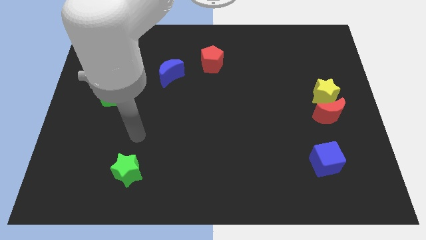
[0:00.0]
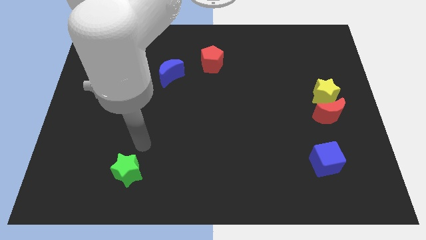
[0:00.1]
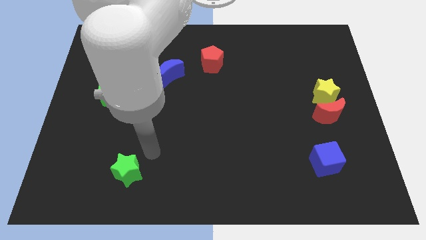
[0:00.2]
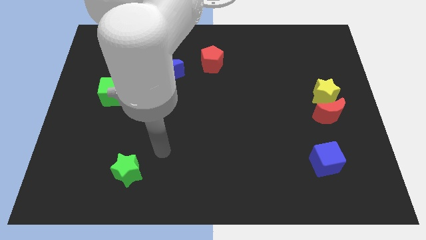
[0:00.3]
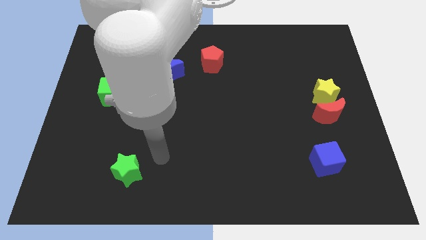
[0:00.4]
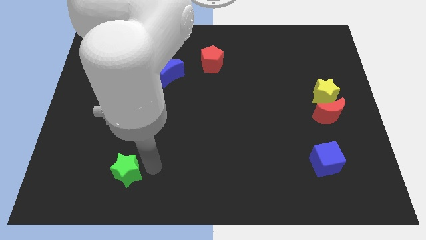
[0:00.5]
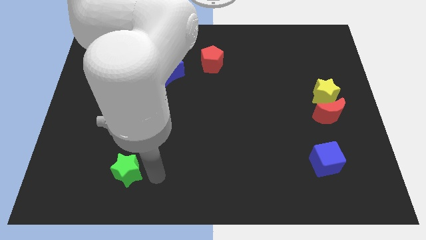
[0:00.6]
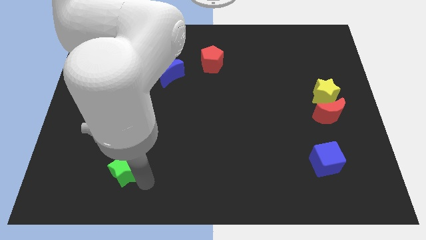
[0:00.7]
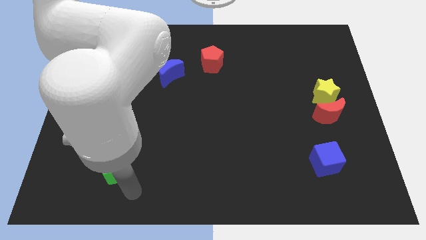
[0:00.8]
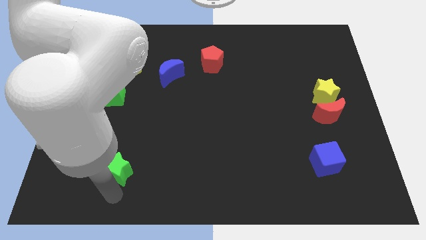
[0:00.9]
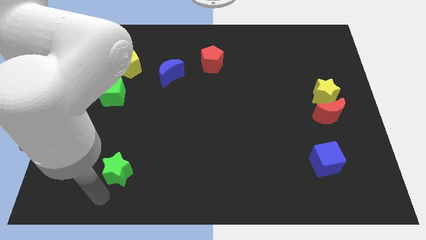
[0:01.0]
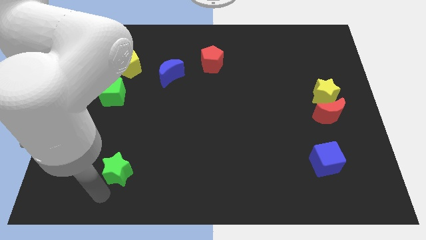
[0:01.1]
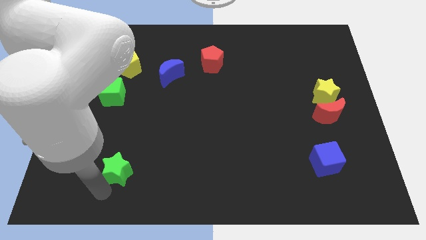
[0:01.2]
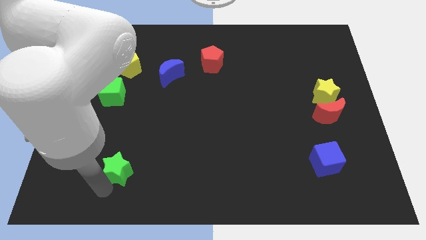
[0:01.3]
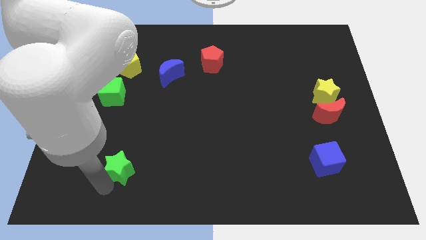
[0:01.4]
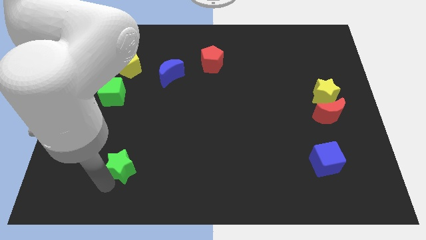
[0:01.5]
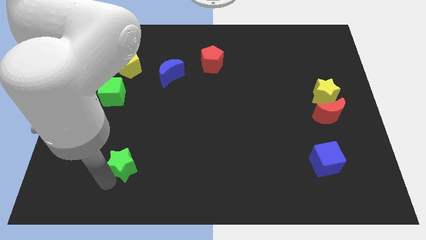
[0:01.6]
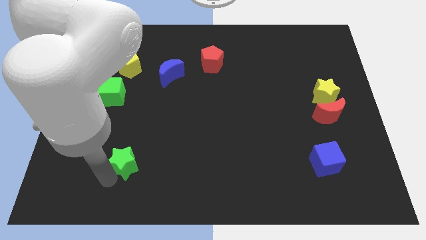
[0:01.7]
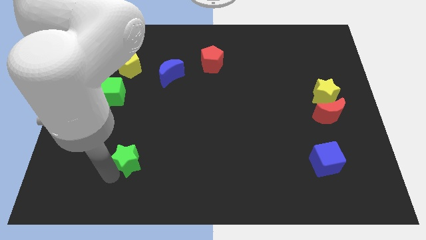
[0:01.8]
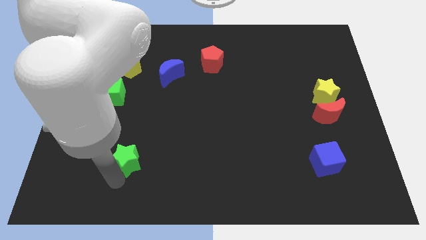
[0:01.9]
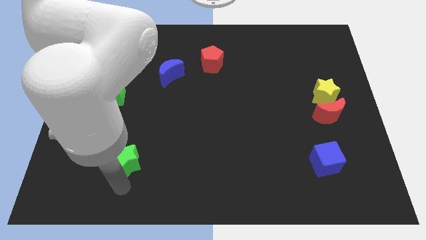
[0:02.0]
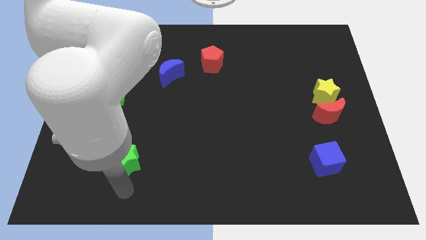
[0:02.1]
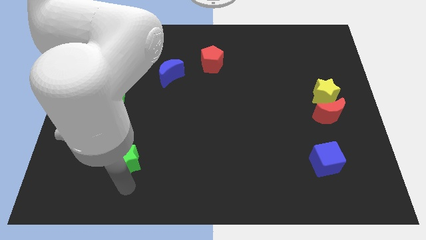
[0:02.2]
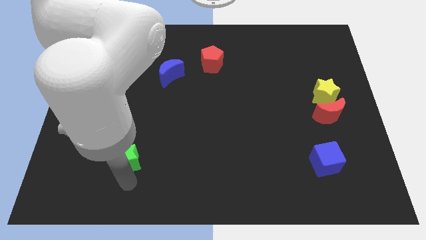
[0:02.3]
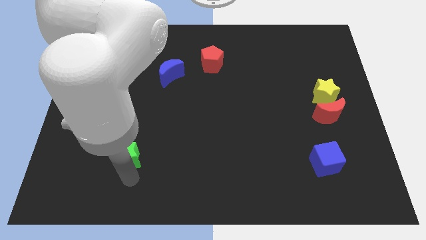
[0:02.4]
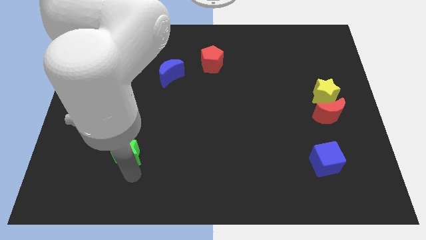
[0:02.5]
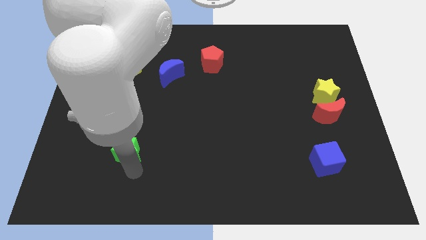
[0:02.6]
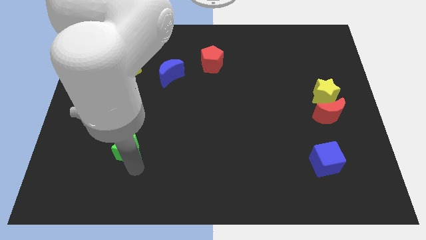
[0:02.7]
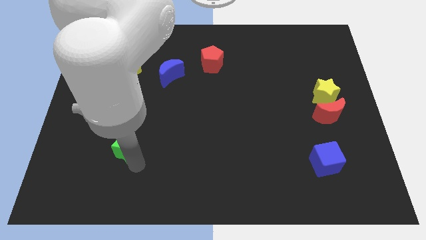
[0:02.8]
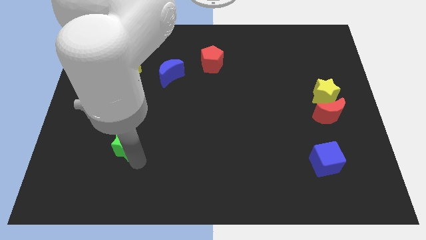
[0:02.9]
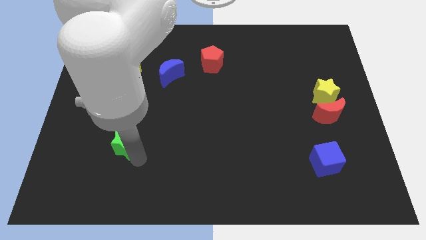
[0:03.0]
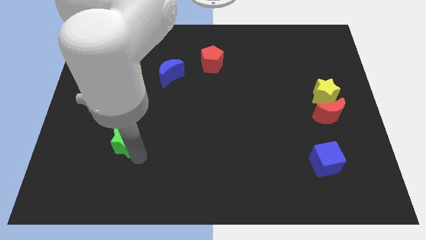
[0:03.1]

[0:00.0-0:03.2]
move the green star somewhat up

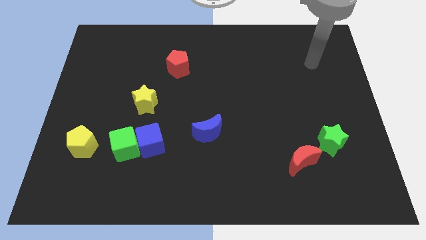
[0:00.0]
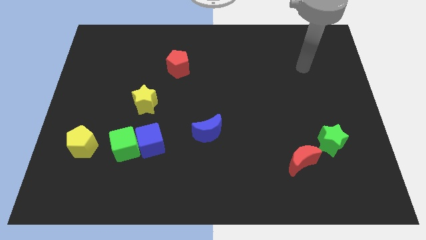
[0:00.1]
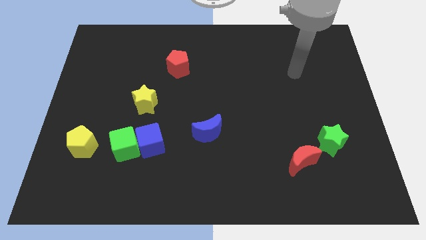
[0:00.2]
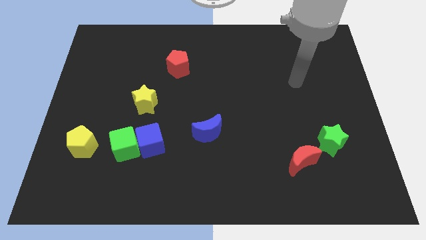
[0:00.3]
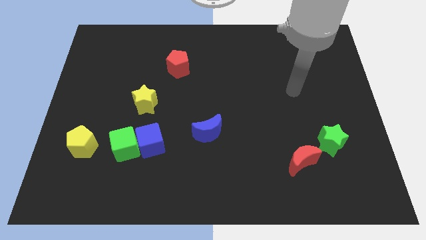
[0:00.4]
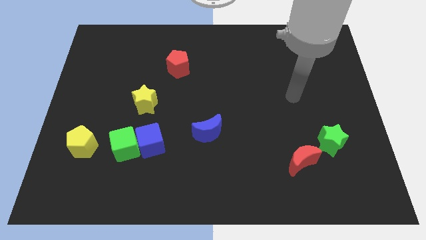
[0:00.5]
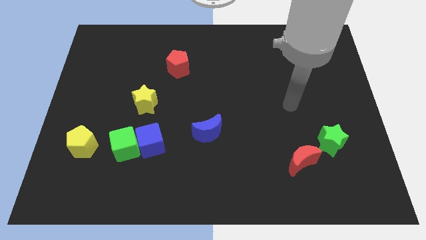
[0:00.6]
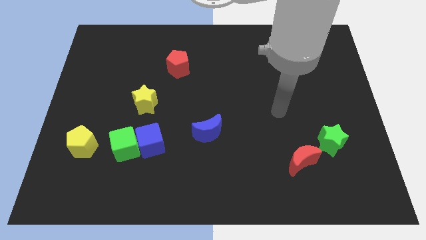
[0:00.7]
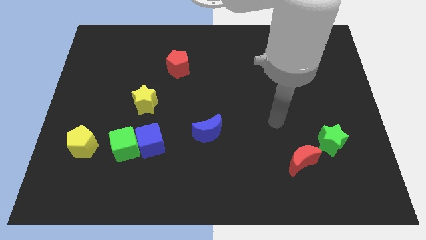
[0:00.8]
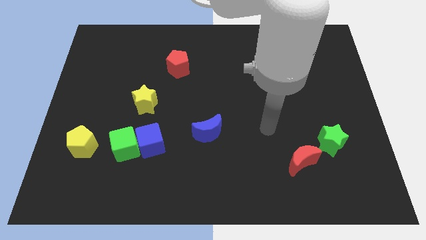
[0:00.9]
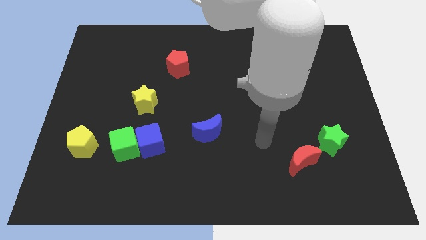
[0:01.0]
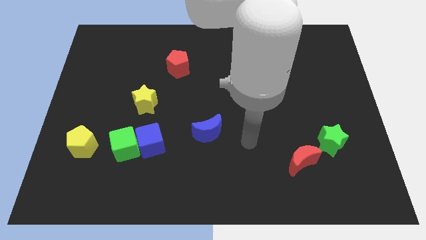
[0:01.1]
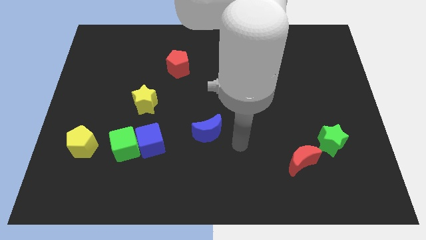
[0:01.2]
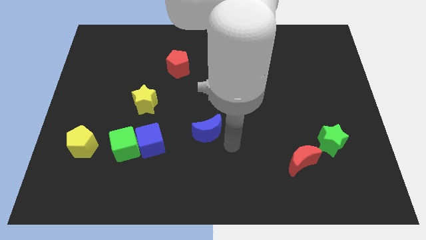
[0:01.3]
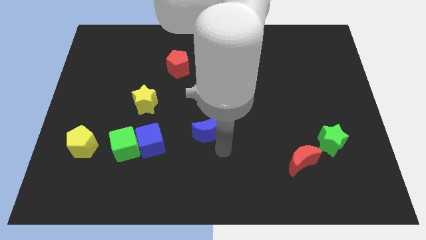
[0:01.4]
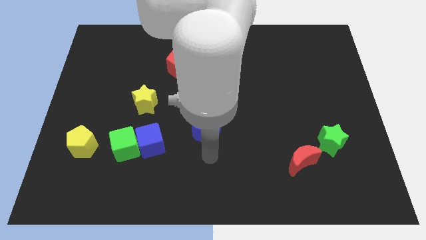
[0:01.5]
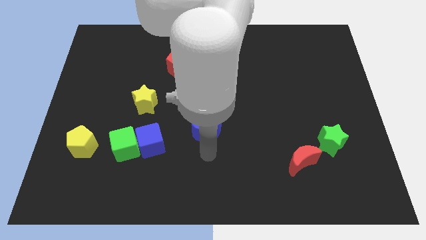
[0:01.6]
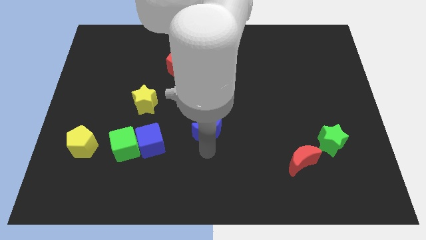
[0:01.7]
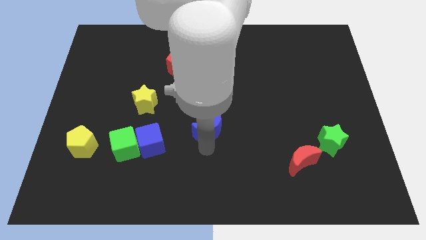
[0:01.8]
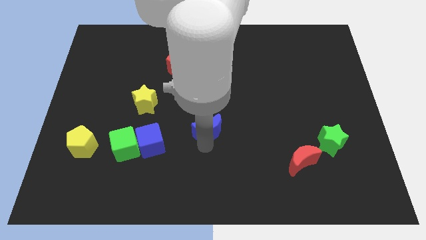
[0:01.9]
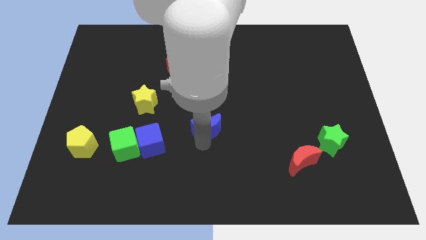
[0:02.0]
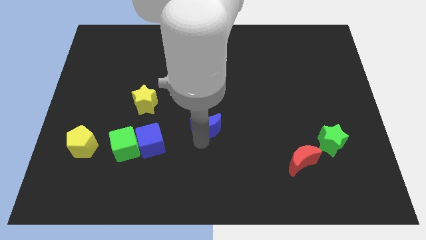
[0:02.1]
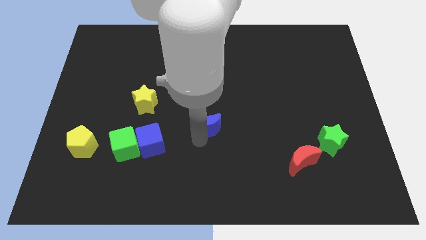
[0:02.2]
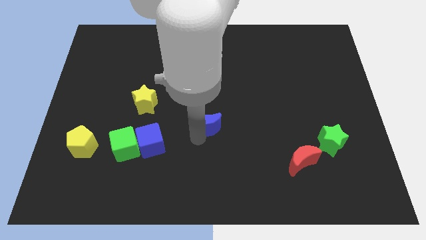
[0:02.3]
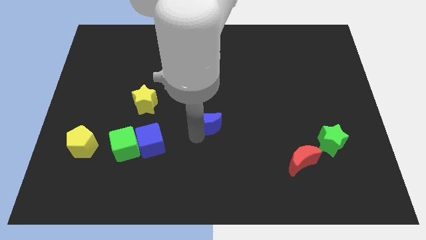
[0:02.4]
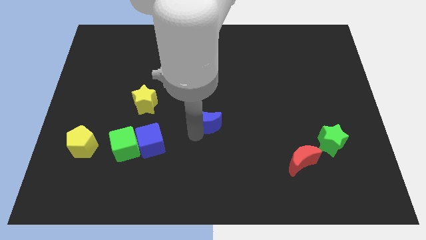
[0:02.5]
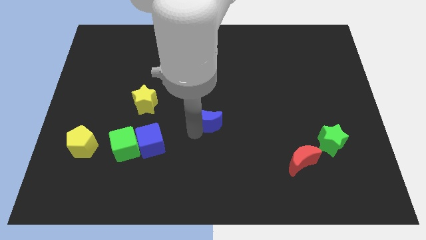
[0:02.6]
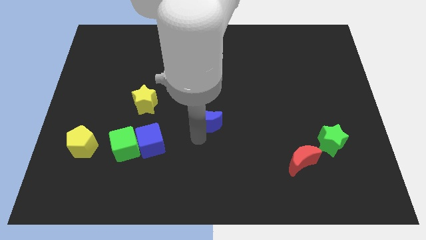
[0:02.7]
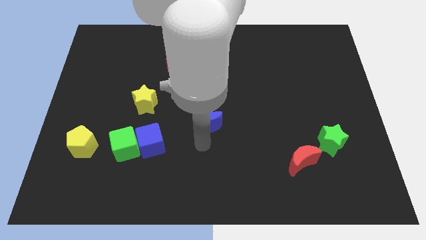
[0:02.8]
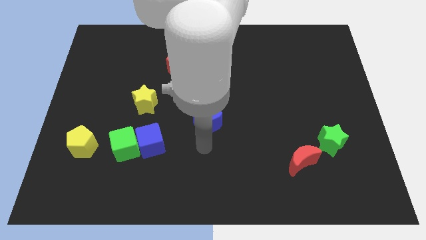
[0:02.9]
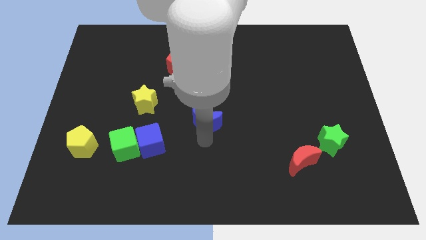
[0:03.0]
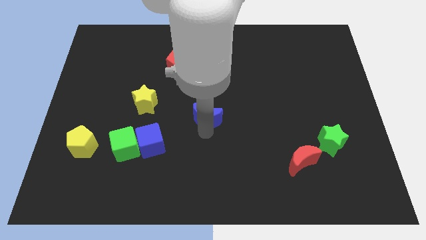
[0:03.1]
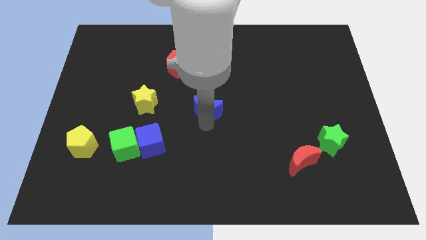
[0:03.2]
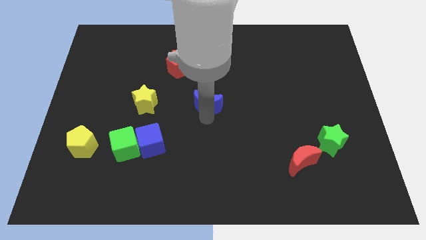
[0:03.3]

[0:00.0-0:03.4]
push the blue moon up a little

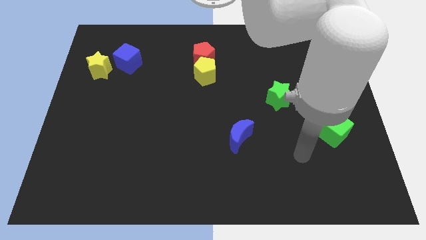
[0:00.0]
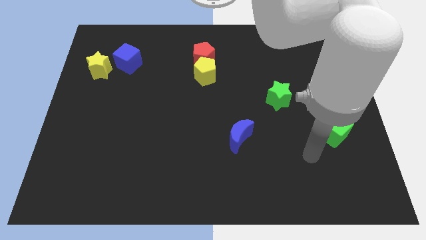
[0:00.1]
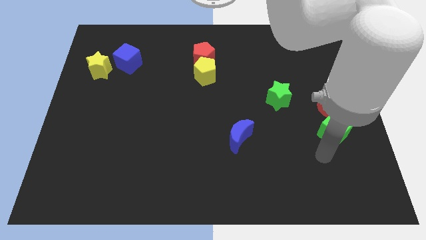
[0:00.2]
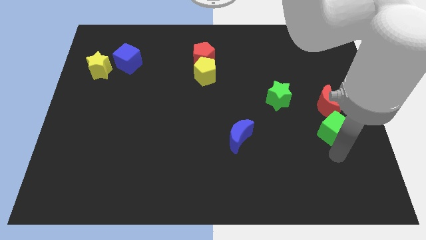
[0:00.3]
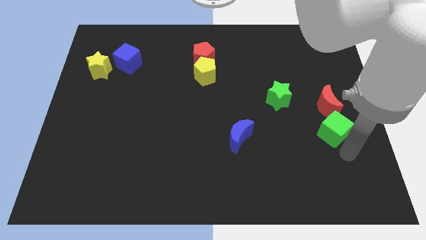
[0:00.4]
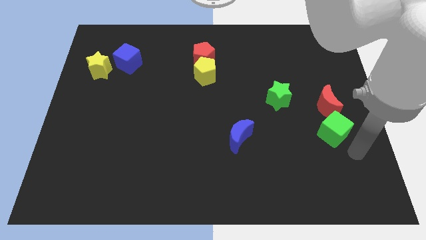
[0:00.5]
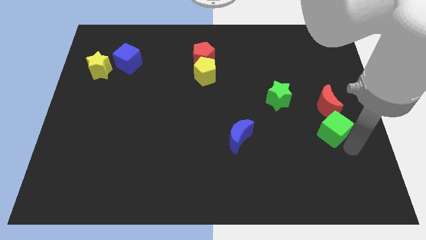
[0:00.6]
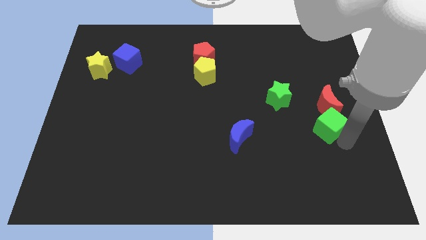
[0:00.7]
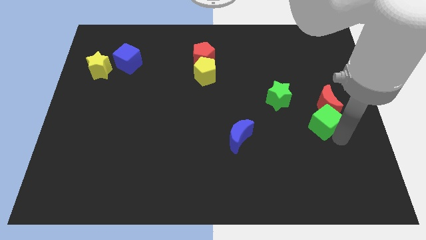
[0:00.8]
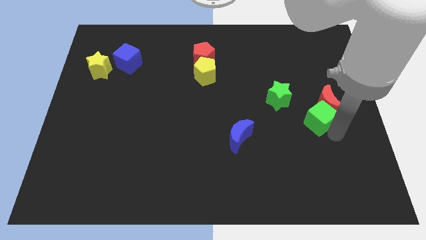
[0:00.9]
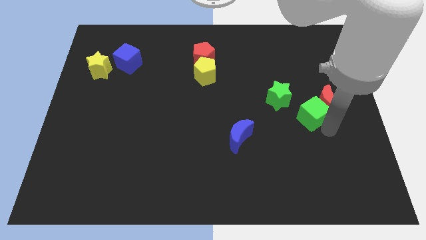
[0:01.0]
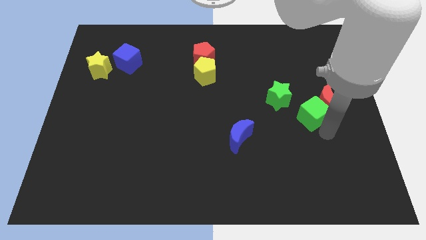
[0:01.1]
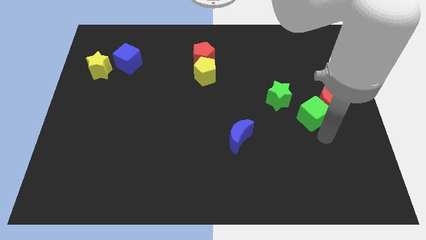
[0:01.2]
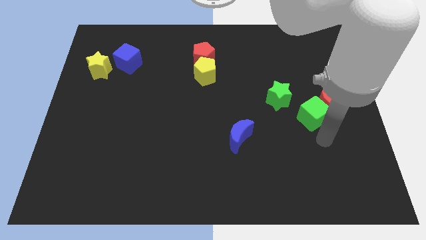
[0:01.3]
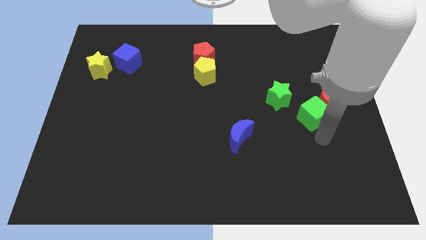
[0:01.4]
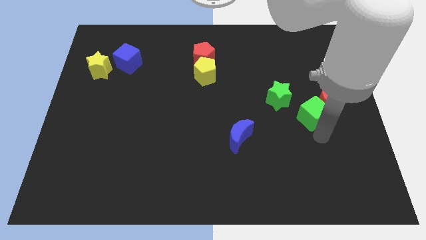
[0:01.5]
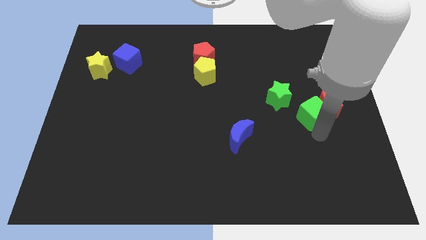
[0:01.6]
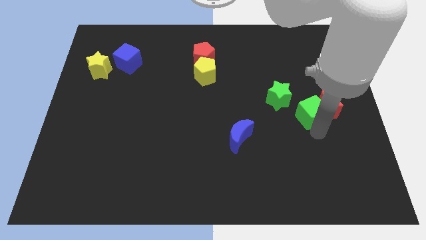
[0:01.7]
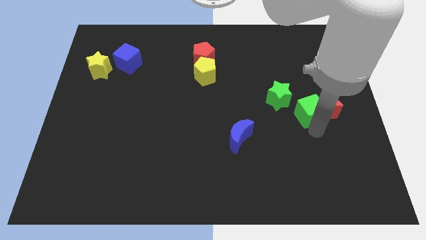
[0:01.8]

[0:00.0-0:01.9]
move the green cube up and to the left a bit
